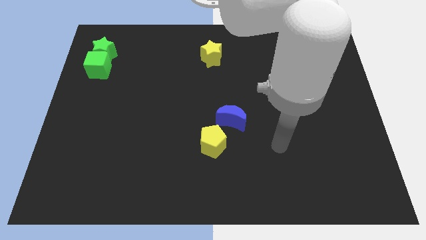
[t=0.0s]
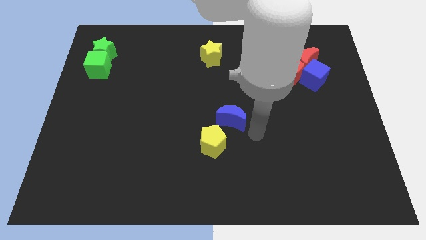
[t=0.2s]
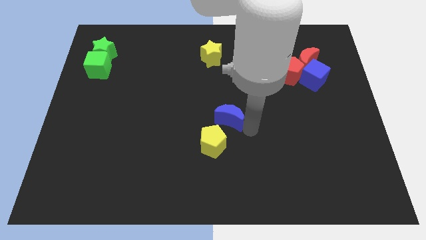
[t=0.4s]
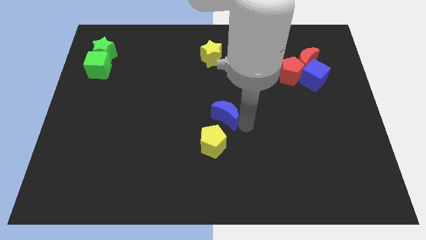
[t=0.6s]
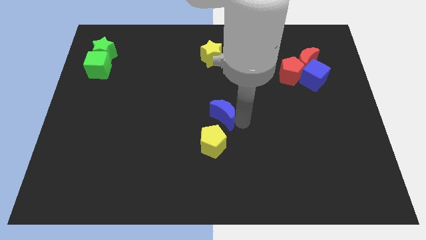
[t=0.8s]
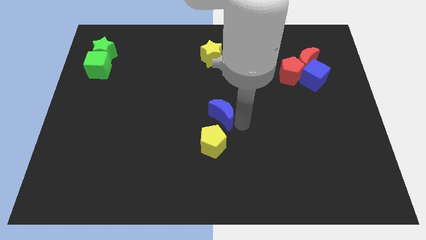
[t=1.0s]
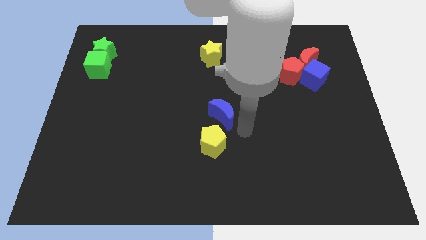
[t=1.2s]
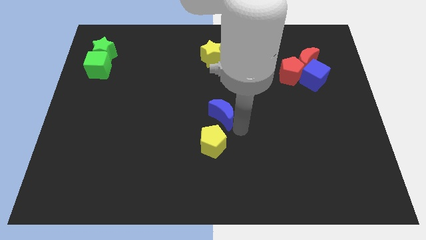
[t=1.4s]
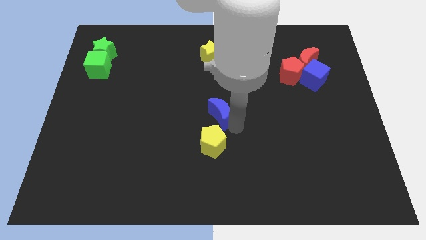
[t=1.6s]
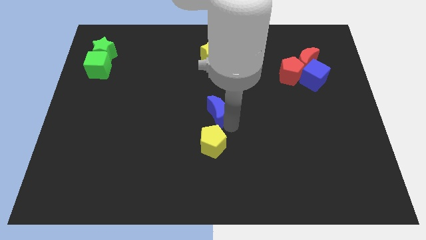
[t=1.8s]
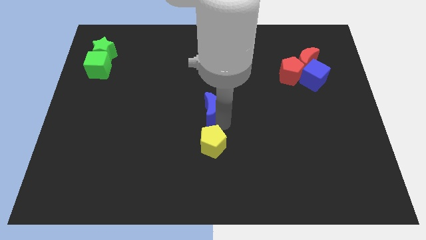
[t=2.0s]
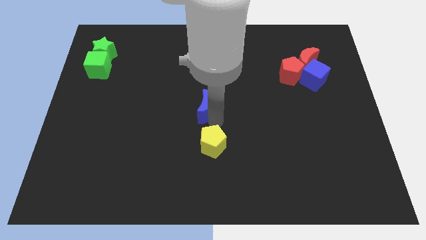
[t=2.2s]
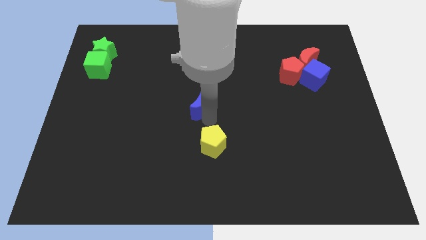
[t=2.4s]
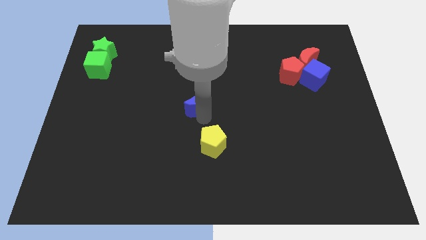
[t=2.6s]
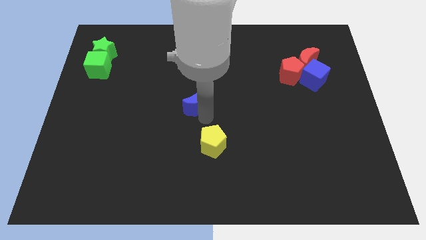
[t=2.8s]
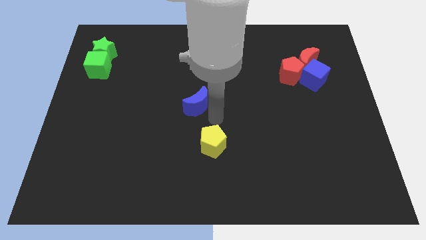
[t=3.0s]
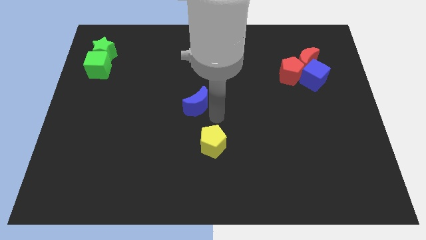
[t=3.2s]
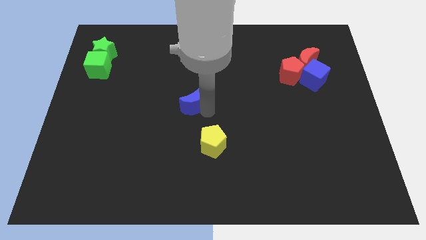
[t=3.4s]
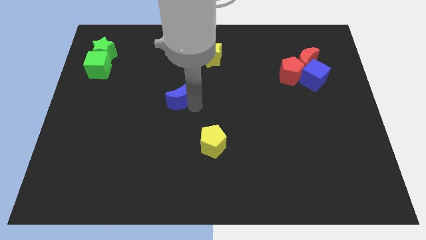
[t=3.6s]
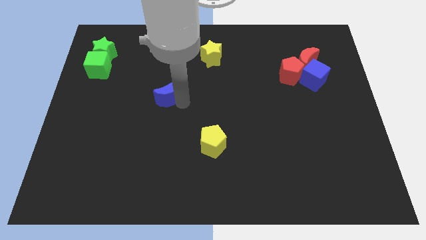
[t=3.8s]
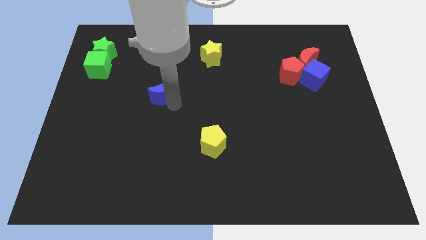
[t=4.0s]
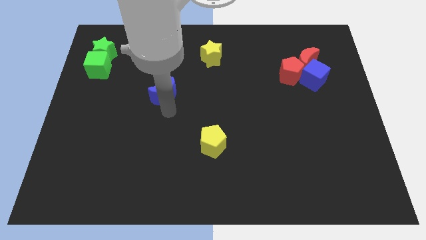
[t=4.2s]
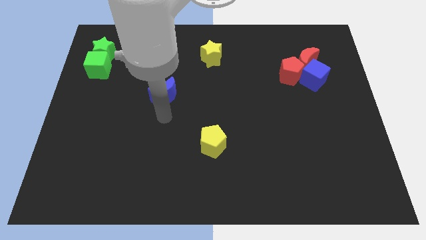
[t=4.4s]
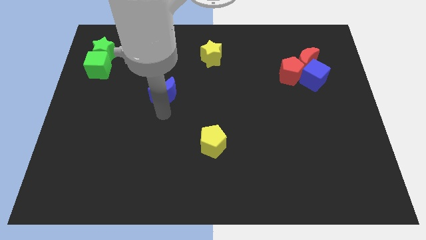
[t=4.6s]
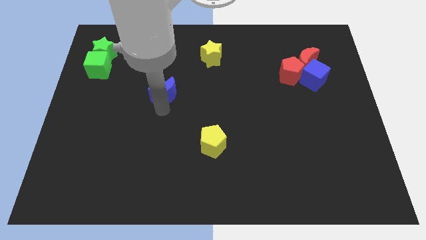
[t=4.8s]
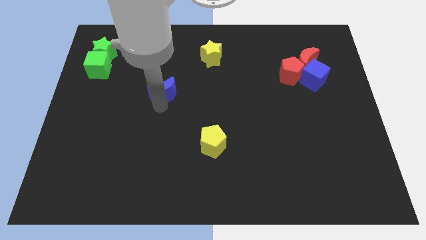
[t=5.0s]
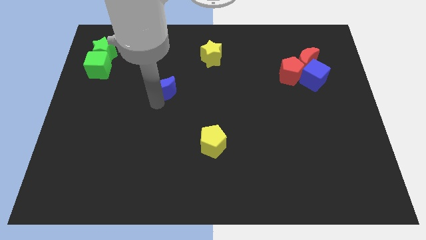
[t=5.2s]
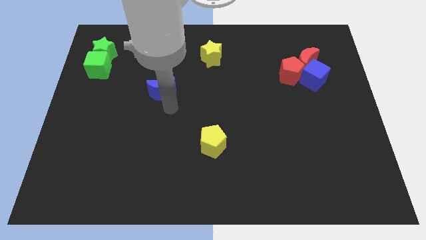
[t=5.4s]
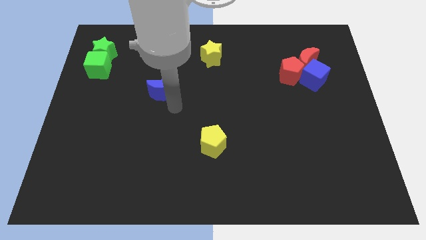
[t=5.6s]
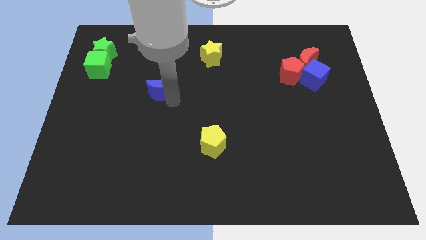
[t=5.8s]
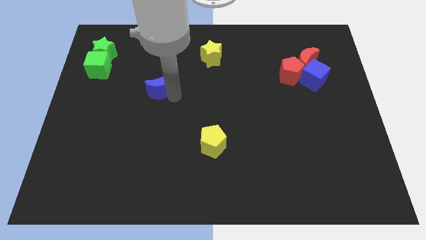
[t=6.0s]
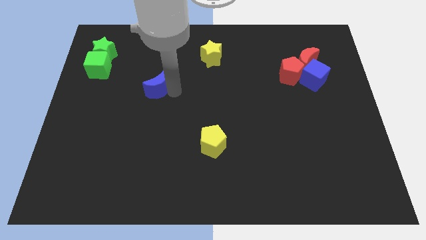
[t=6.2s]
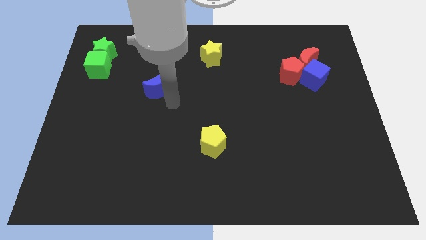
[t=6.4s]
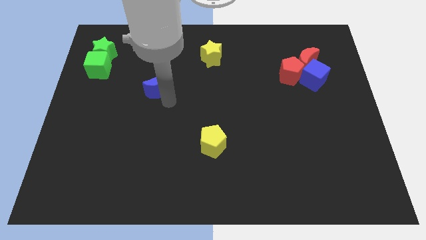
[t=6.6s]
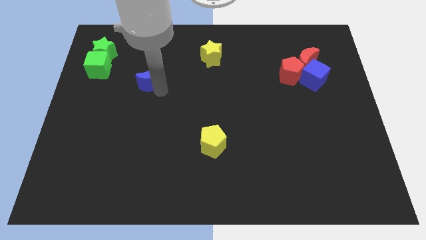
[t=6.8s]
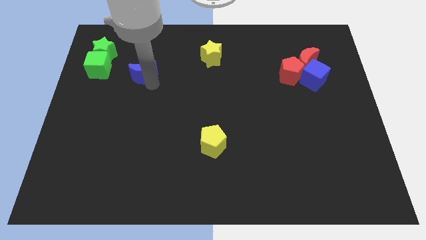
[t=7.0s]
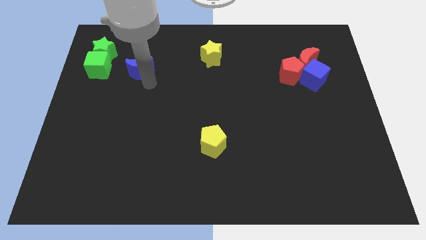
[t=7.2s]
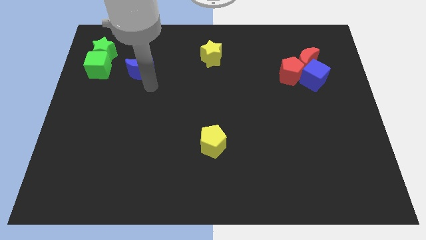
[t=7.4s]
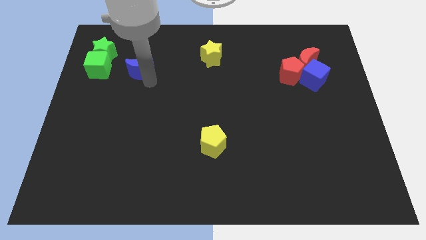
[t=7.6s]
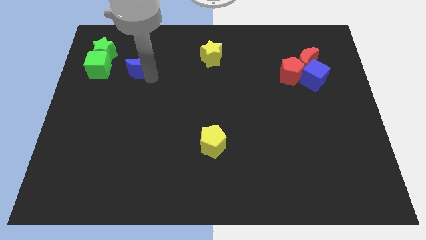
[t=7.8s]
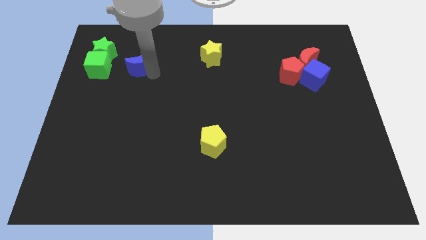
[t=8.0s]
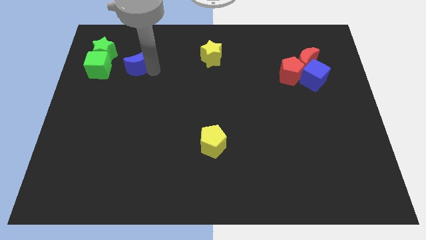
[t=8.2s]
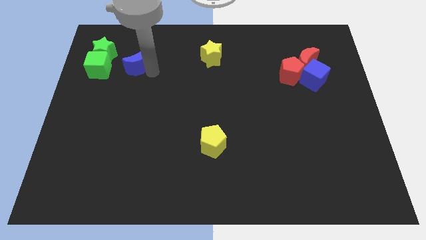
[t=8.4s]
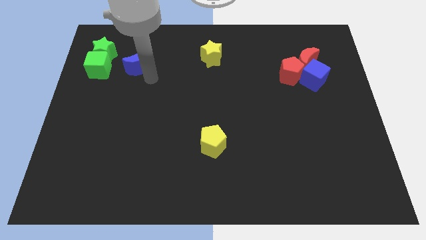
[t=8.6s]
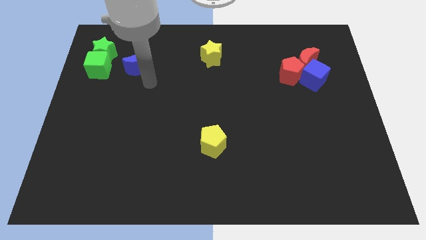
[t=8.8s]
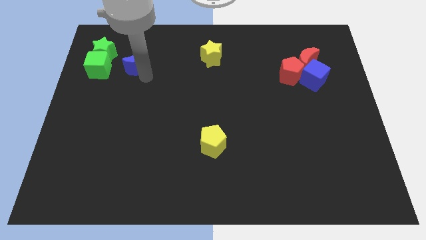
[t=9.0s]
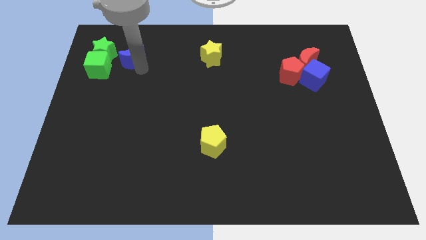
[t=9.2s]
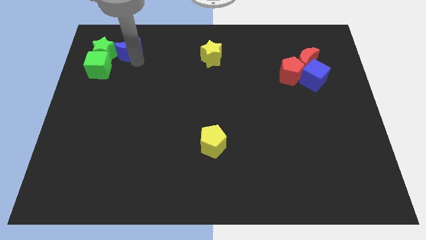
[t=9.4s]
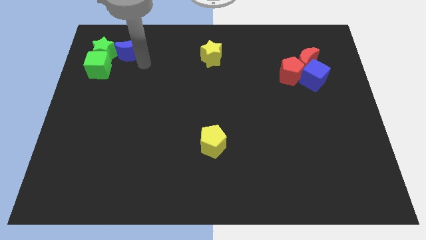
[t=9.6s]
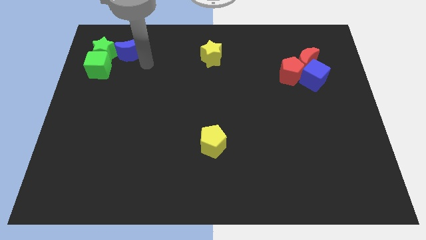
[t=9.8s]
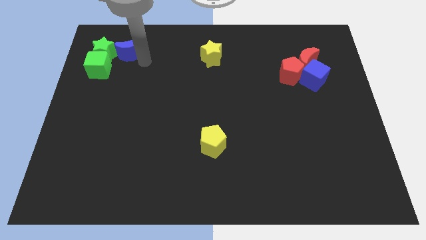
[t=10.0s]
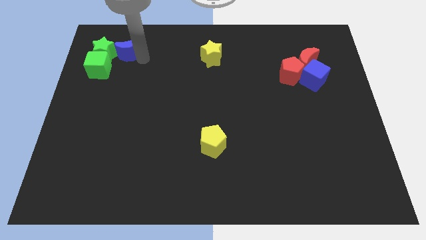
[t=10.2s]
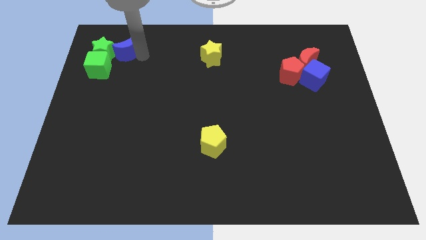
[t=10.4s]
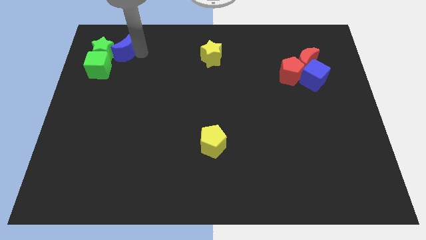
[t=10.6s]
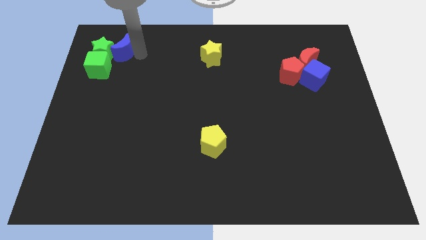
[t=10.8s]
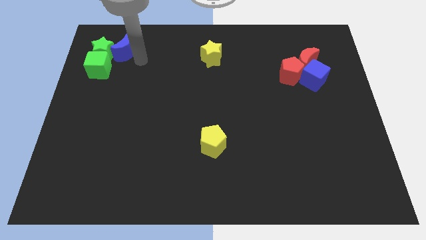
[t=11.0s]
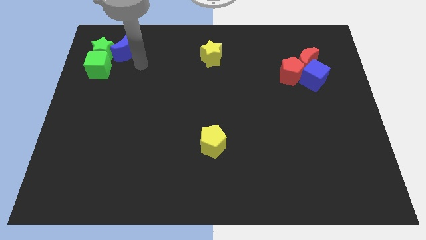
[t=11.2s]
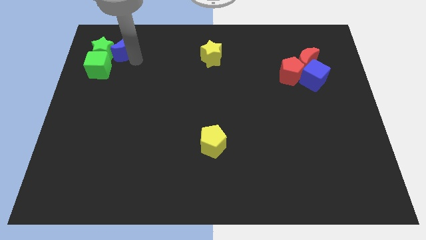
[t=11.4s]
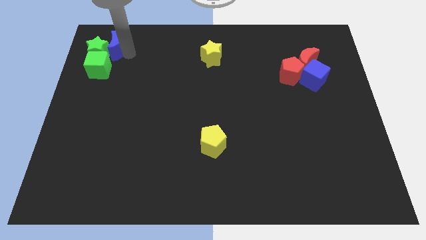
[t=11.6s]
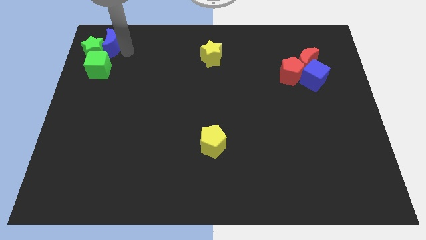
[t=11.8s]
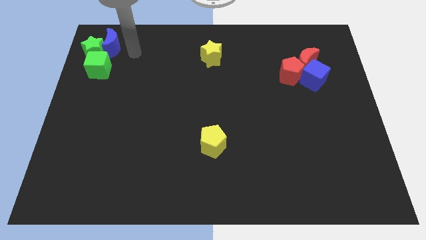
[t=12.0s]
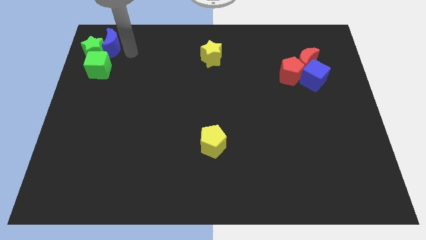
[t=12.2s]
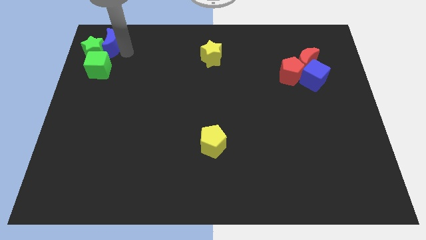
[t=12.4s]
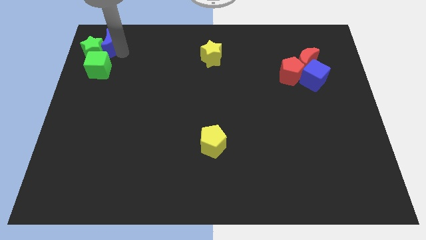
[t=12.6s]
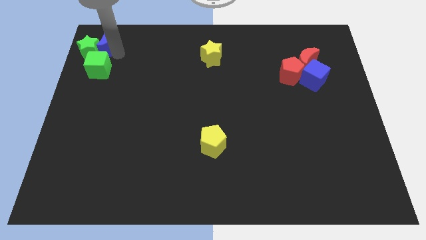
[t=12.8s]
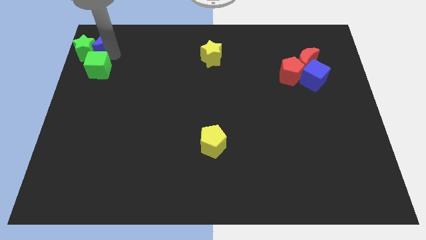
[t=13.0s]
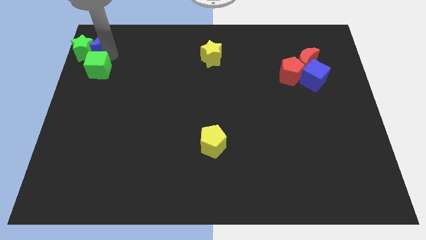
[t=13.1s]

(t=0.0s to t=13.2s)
slide the blue moon to the top left of the board
